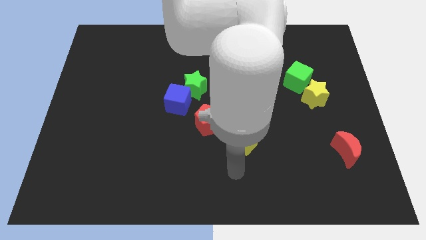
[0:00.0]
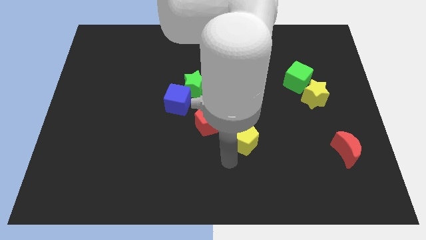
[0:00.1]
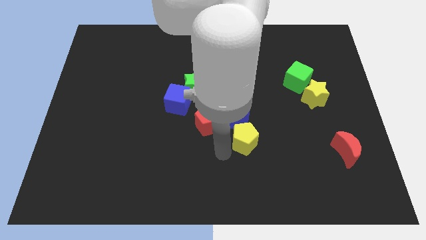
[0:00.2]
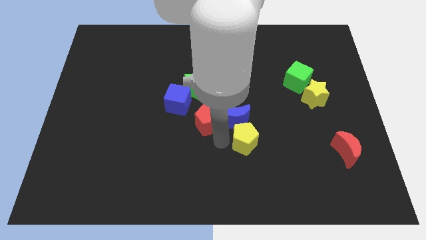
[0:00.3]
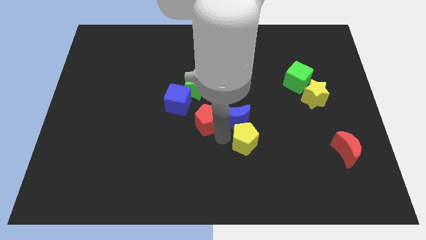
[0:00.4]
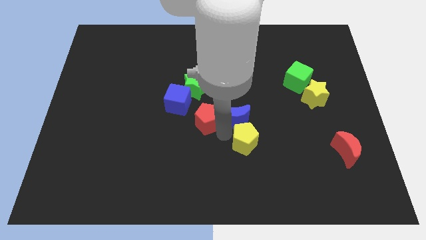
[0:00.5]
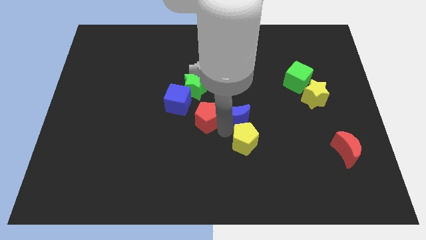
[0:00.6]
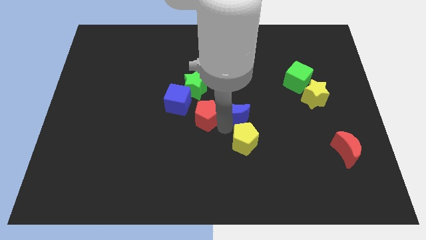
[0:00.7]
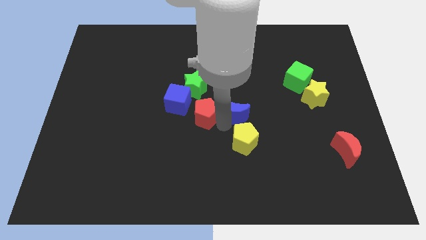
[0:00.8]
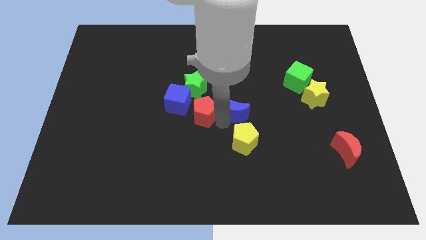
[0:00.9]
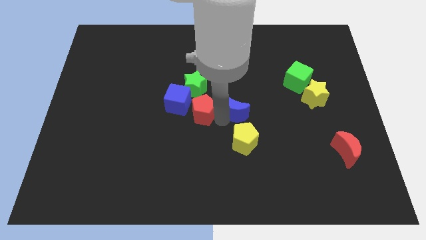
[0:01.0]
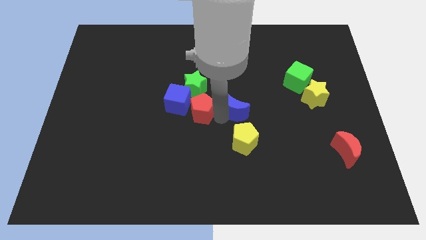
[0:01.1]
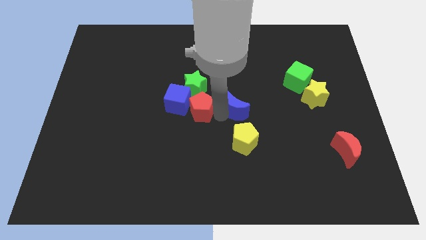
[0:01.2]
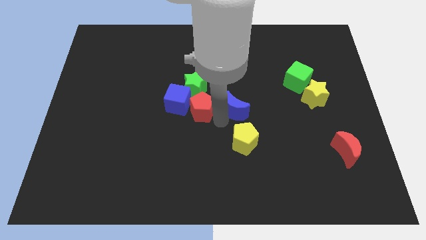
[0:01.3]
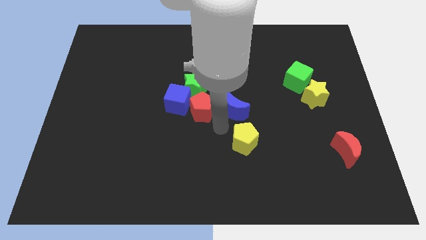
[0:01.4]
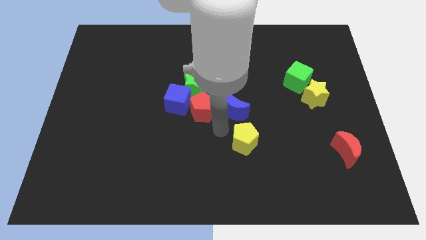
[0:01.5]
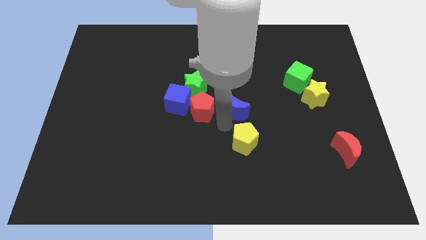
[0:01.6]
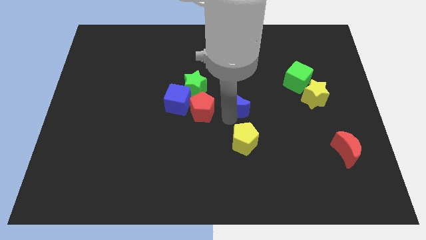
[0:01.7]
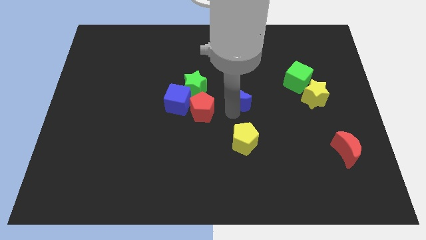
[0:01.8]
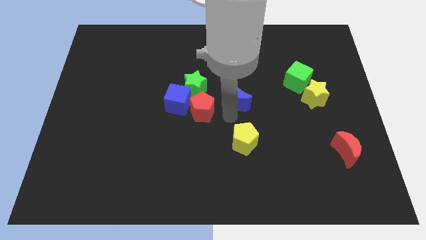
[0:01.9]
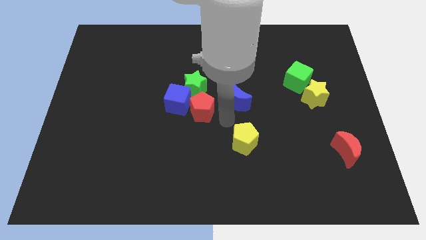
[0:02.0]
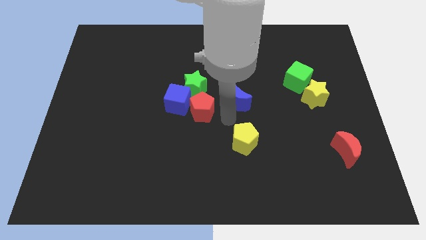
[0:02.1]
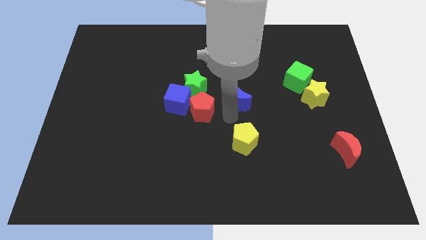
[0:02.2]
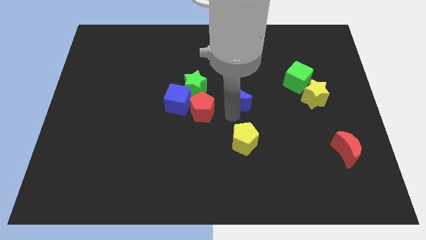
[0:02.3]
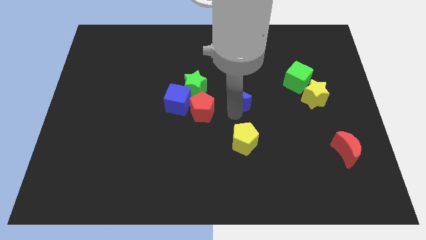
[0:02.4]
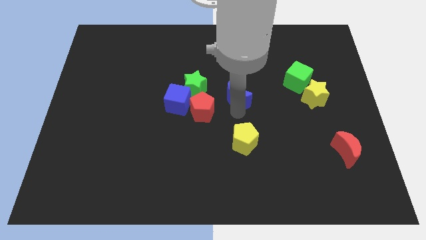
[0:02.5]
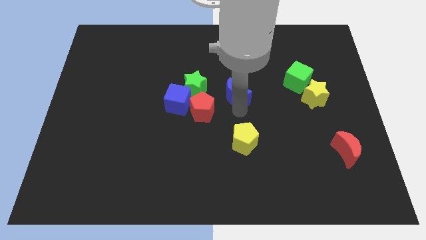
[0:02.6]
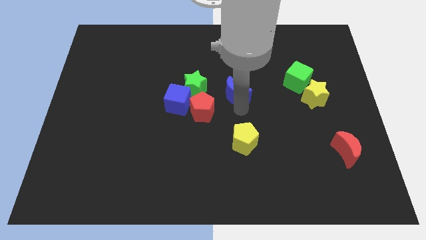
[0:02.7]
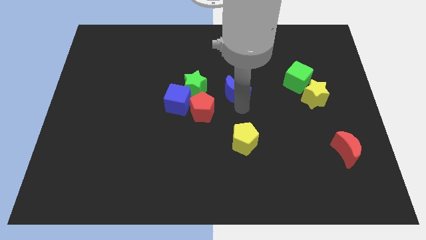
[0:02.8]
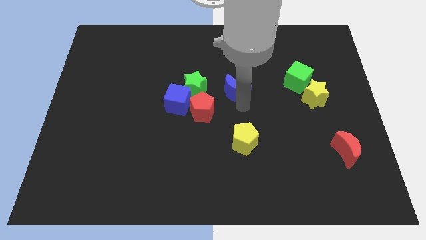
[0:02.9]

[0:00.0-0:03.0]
pull the blue moon apart from the yellow pentagon and red pentagon

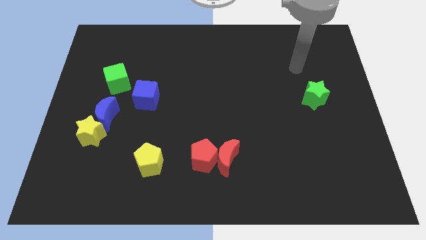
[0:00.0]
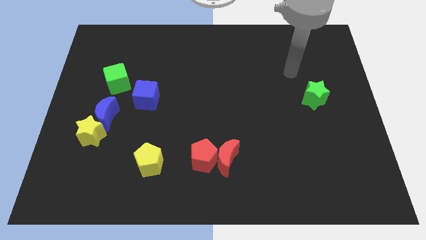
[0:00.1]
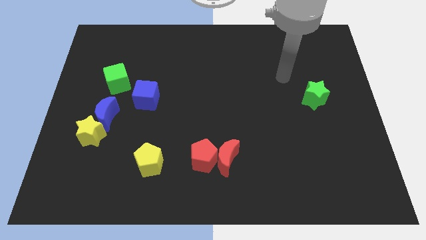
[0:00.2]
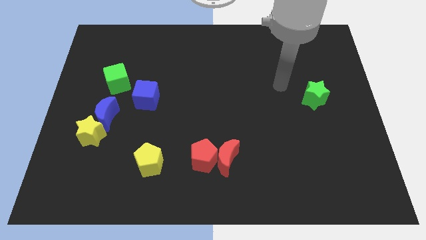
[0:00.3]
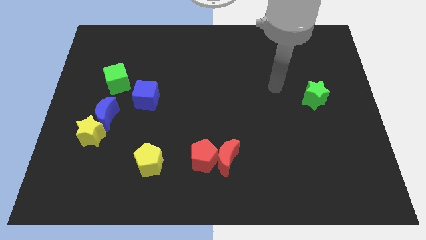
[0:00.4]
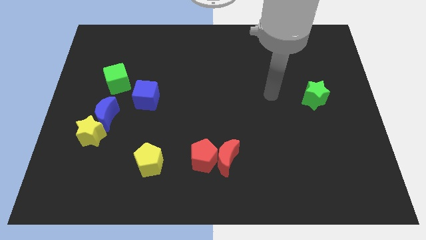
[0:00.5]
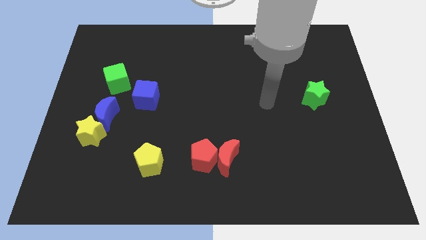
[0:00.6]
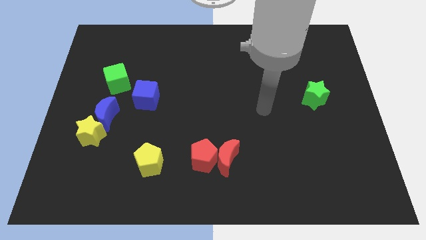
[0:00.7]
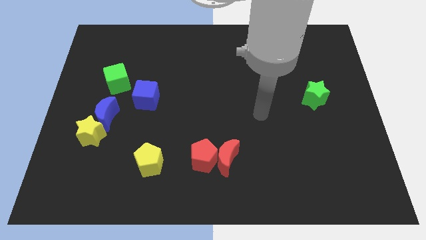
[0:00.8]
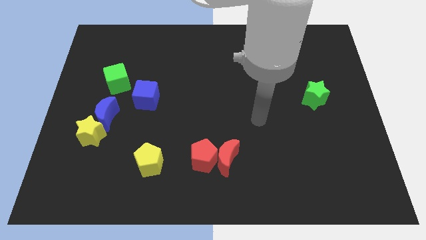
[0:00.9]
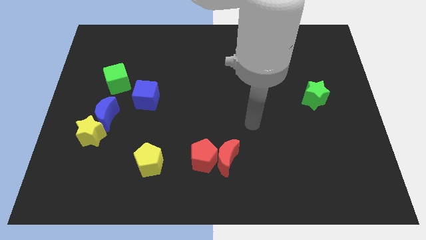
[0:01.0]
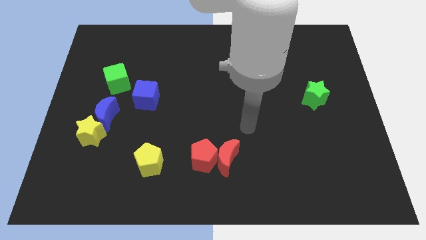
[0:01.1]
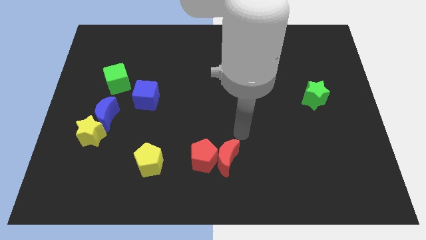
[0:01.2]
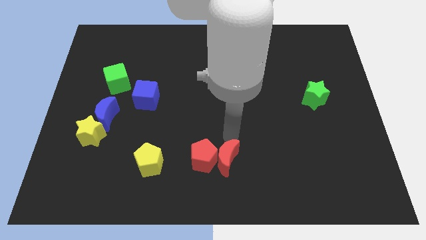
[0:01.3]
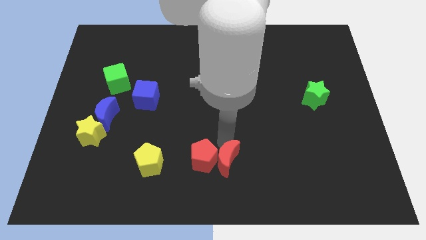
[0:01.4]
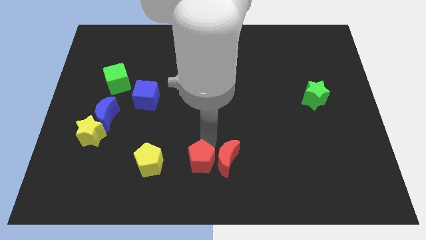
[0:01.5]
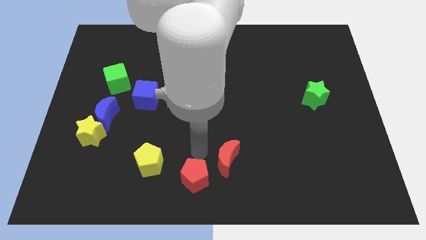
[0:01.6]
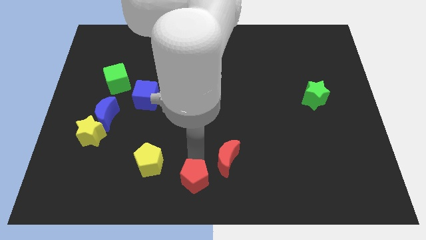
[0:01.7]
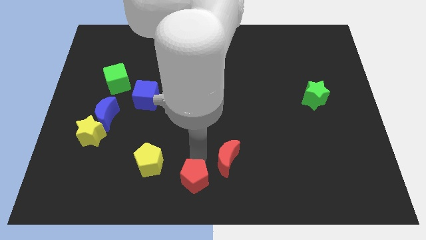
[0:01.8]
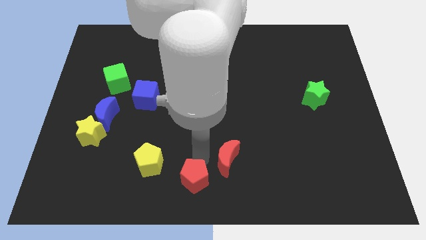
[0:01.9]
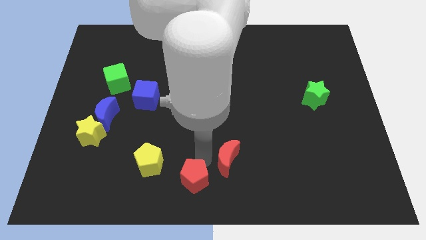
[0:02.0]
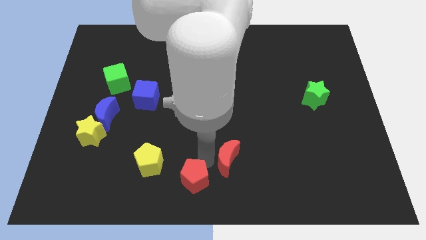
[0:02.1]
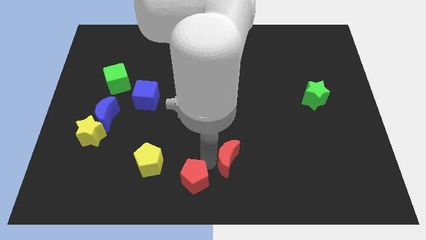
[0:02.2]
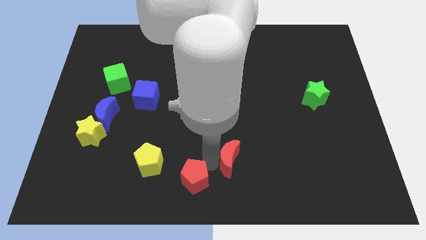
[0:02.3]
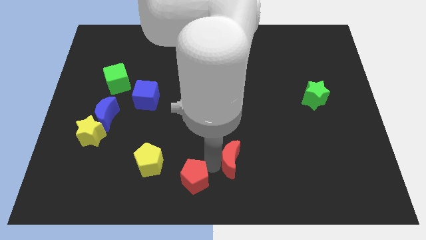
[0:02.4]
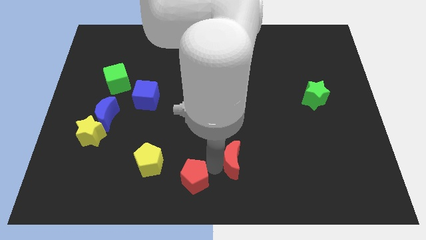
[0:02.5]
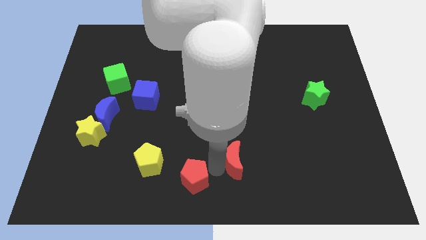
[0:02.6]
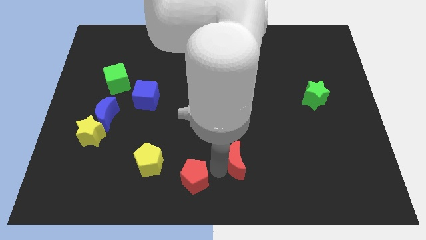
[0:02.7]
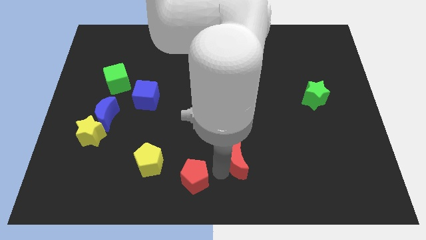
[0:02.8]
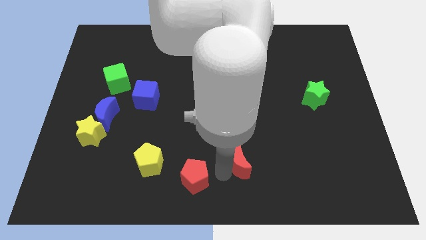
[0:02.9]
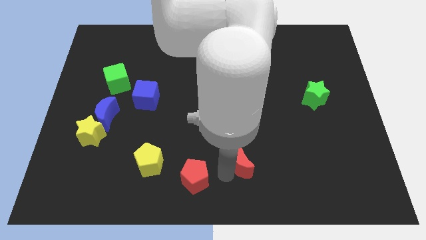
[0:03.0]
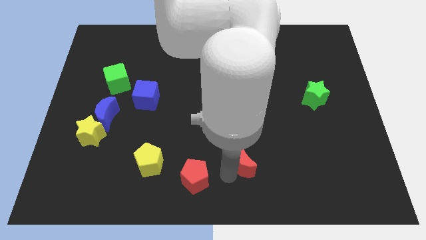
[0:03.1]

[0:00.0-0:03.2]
separate the red moon from the red pentagon

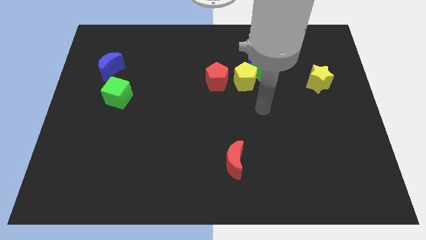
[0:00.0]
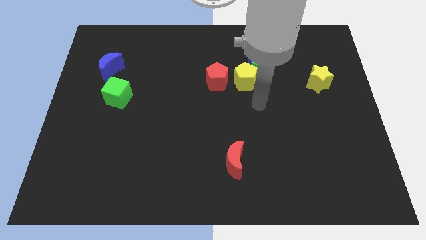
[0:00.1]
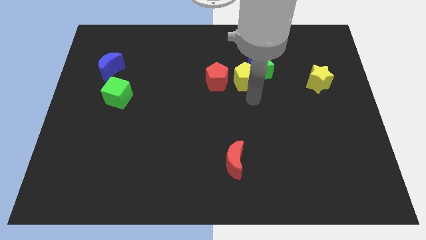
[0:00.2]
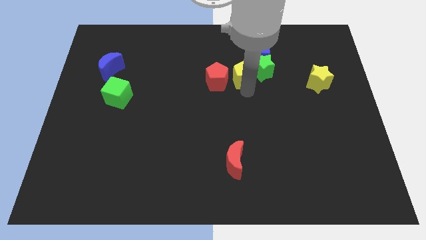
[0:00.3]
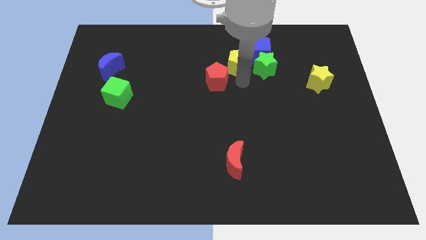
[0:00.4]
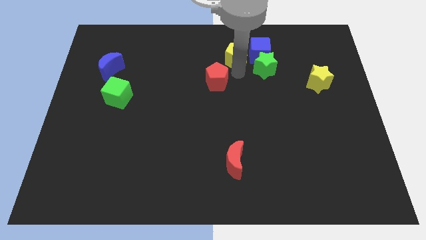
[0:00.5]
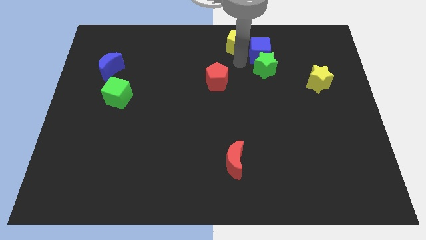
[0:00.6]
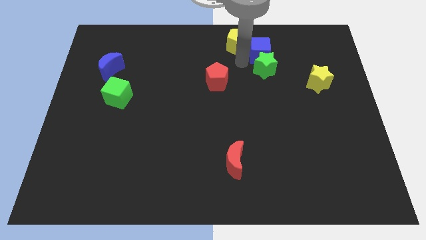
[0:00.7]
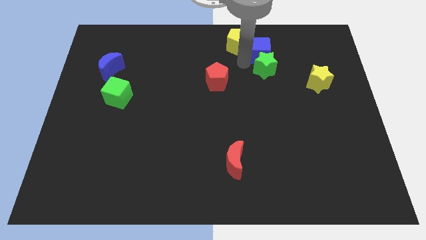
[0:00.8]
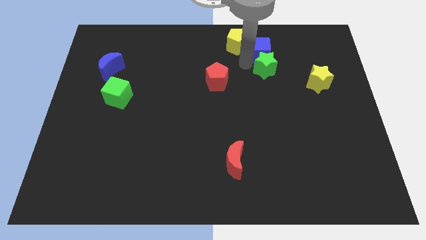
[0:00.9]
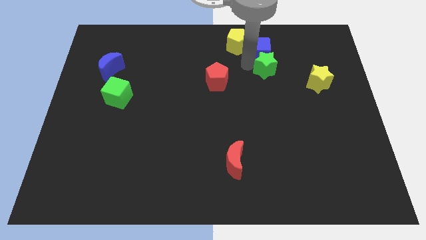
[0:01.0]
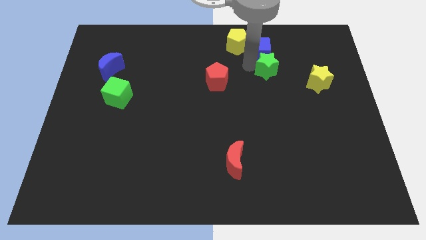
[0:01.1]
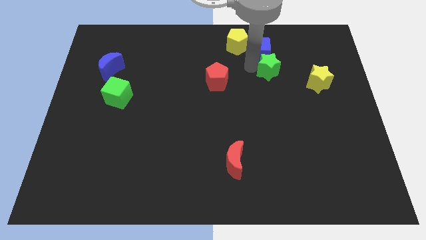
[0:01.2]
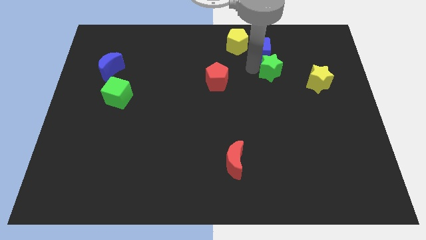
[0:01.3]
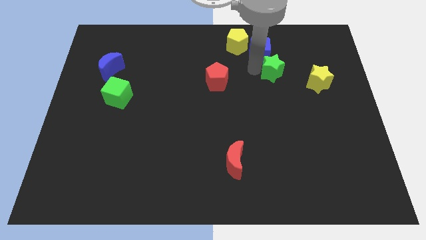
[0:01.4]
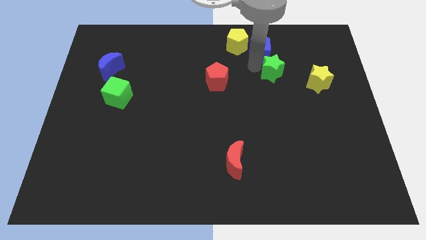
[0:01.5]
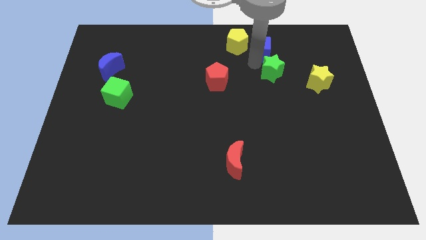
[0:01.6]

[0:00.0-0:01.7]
pull the green star apart from the blue cube and yellow pentagon

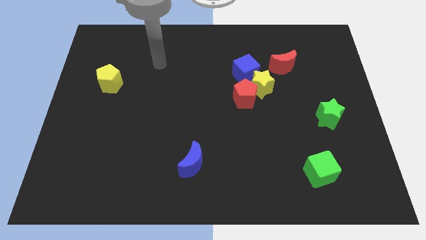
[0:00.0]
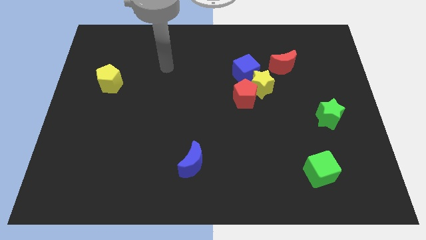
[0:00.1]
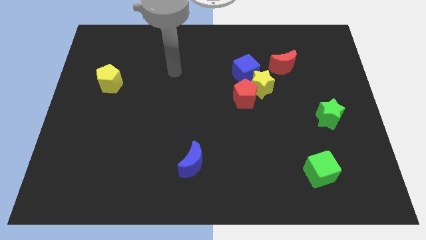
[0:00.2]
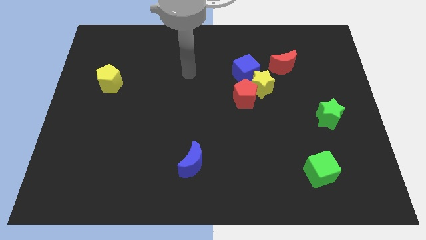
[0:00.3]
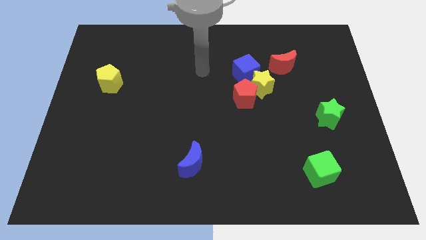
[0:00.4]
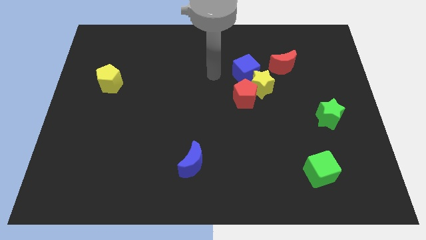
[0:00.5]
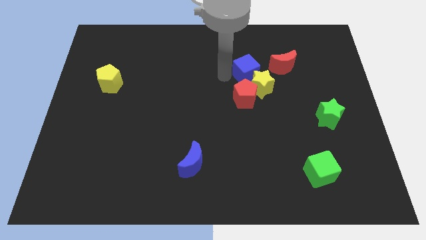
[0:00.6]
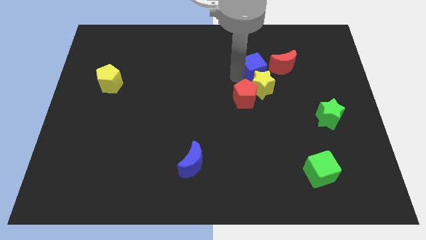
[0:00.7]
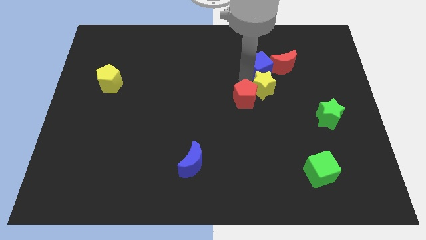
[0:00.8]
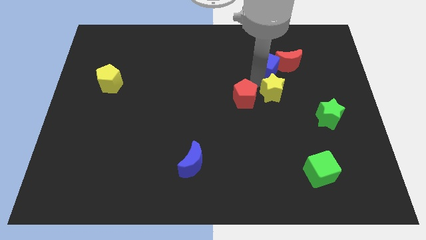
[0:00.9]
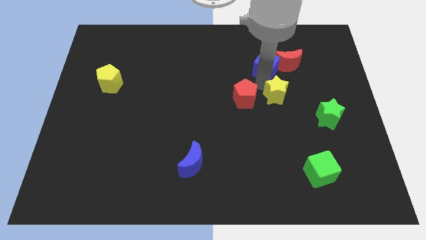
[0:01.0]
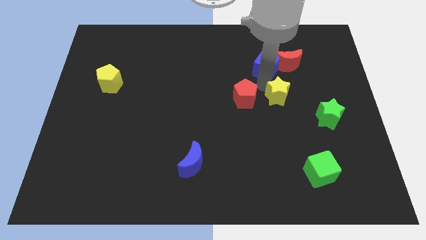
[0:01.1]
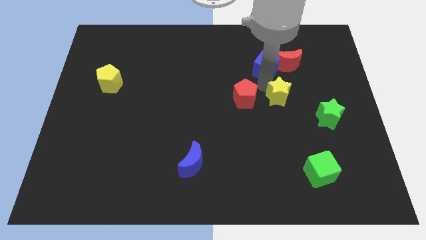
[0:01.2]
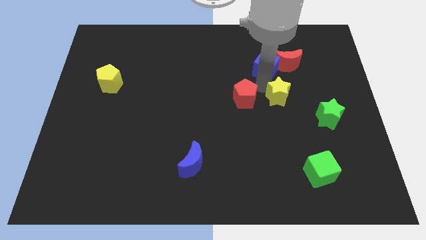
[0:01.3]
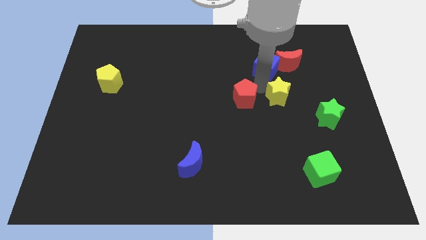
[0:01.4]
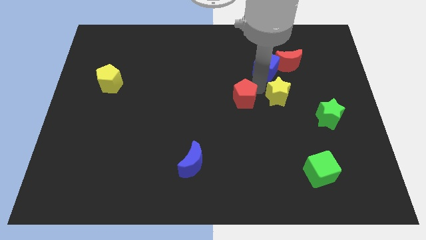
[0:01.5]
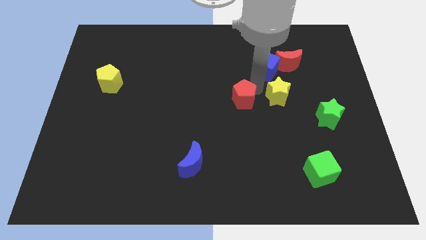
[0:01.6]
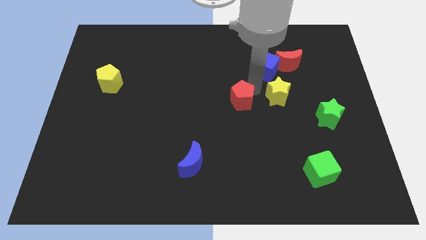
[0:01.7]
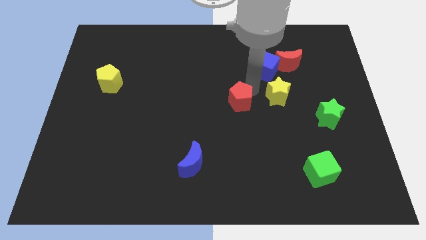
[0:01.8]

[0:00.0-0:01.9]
move the red pentagon away from the yellow star and blue cube
